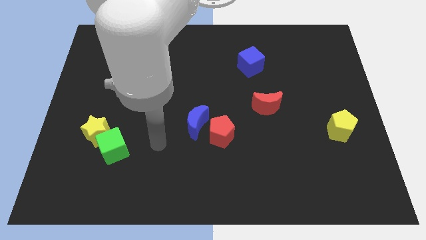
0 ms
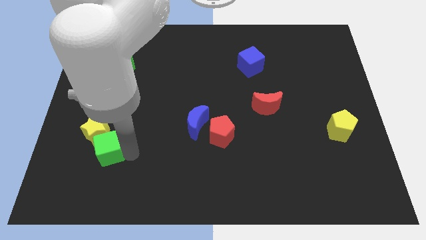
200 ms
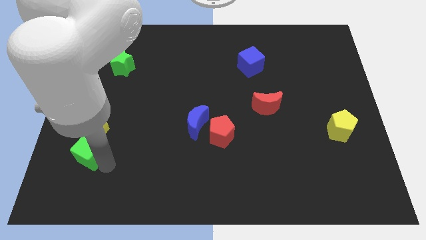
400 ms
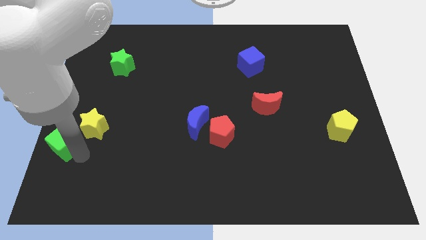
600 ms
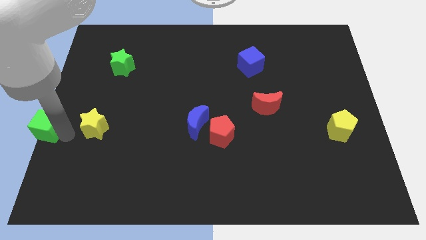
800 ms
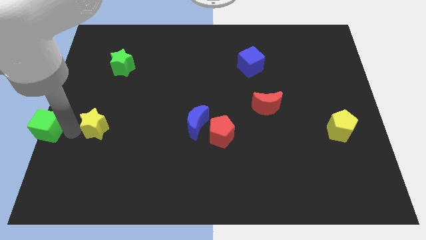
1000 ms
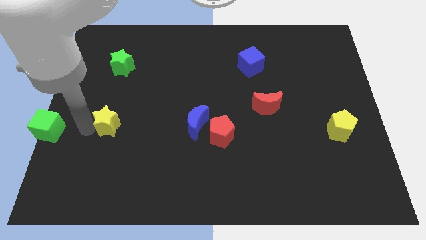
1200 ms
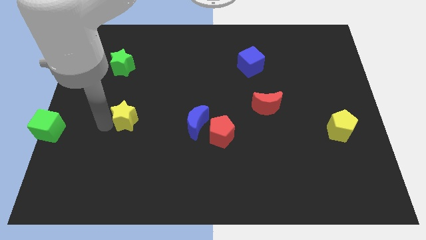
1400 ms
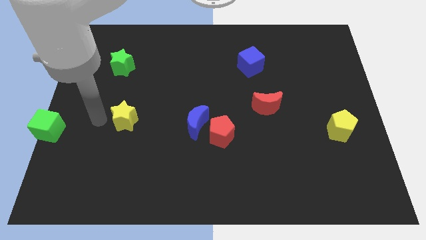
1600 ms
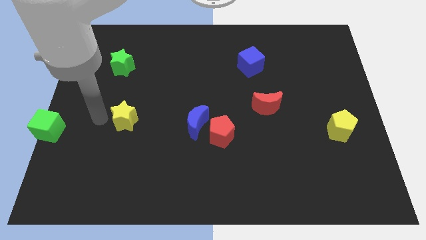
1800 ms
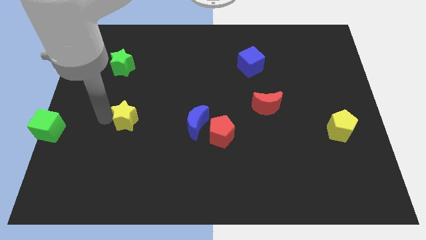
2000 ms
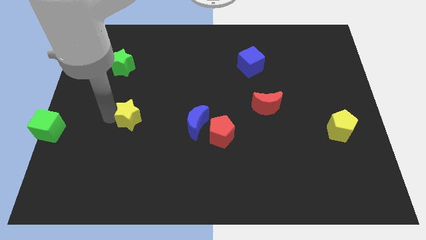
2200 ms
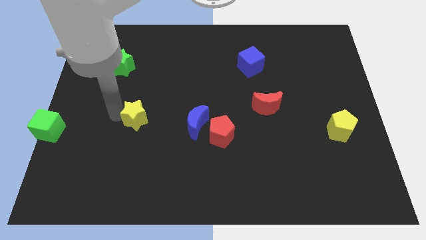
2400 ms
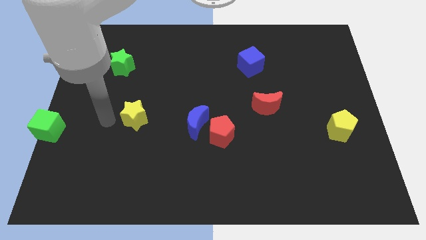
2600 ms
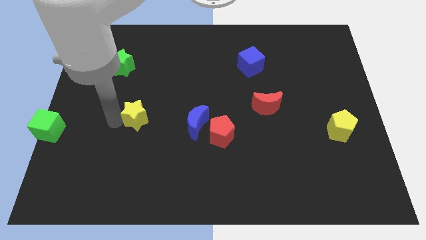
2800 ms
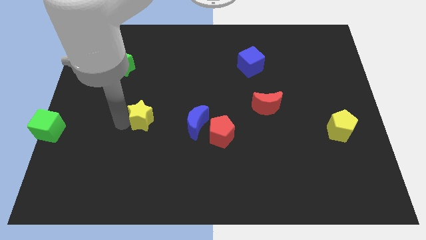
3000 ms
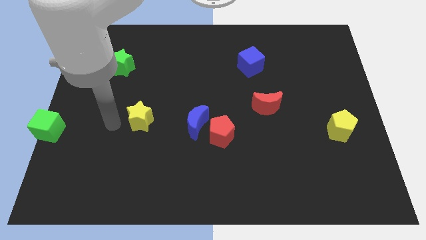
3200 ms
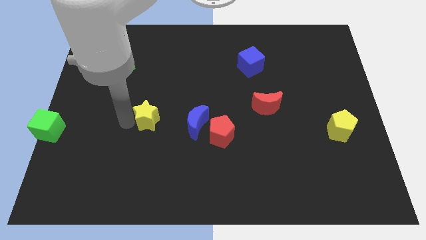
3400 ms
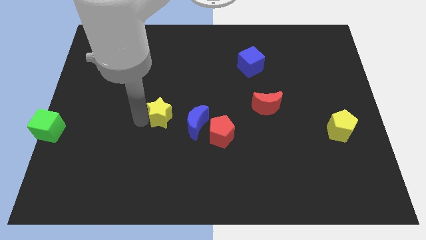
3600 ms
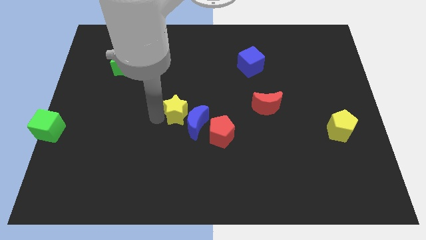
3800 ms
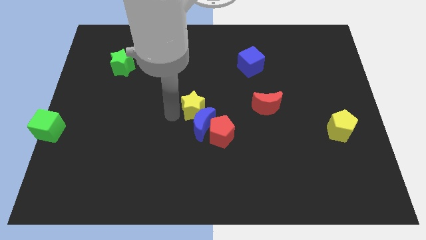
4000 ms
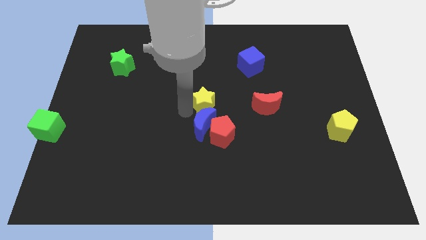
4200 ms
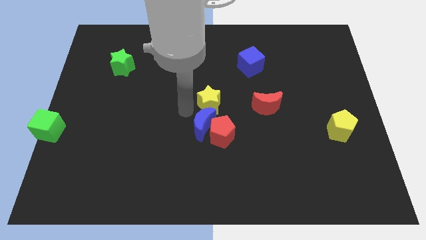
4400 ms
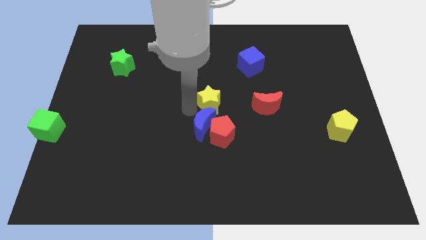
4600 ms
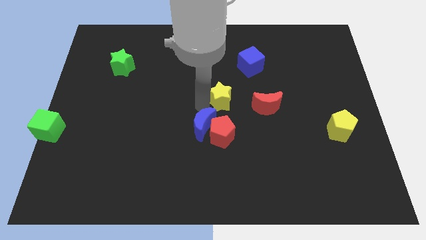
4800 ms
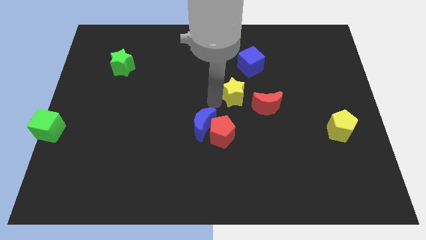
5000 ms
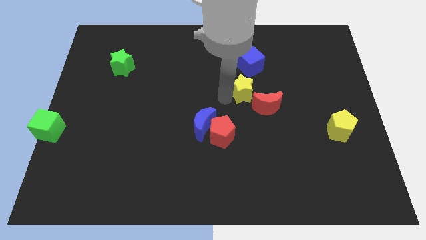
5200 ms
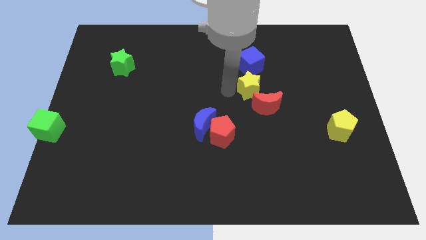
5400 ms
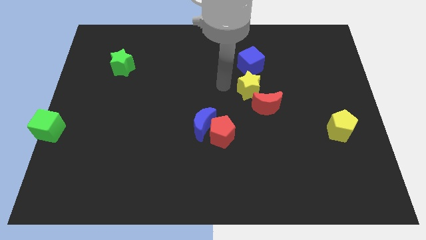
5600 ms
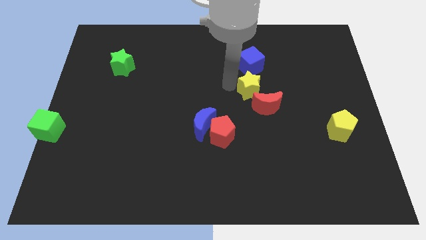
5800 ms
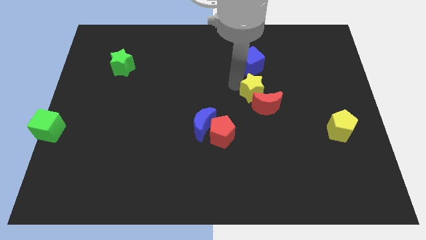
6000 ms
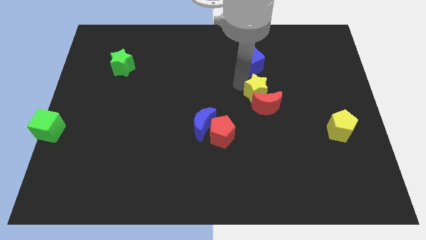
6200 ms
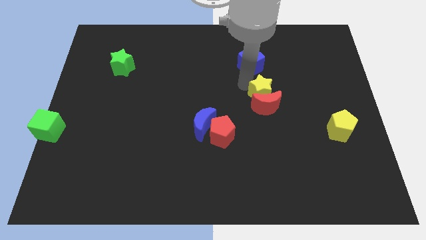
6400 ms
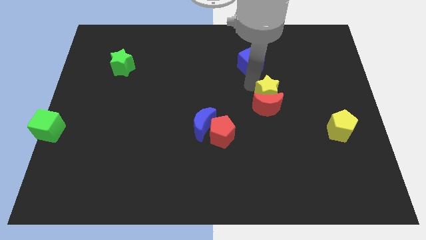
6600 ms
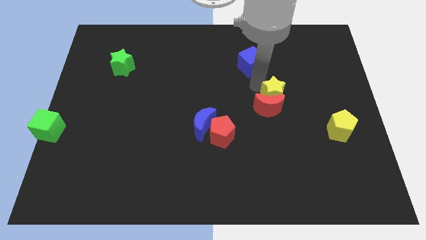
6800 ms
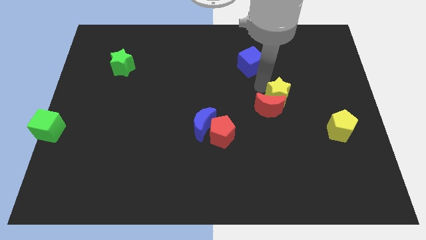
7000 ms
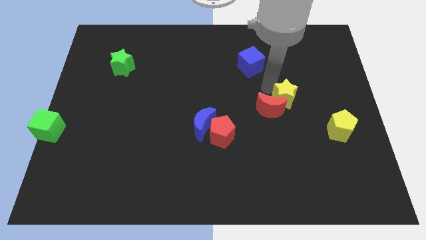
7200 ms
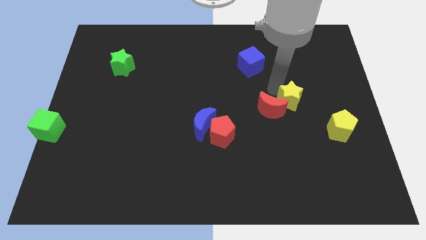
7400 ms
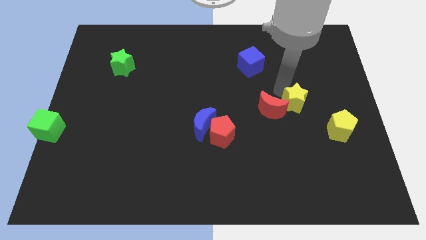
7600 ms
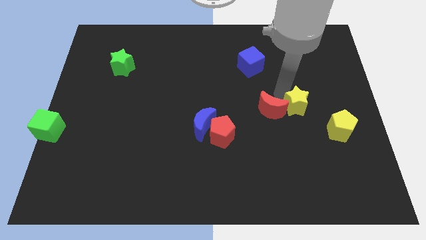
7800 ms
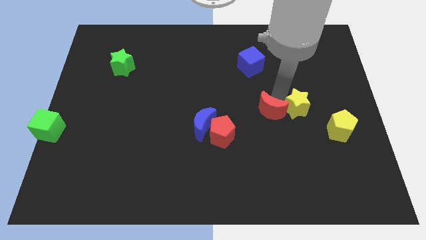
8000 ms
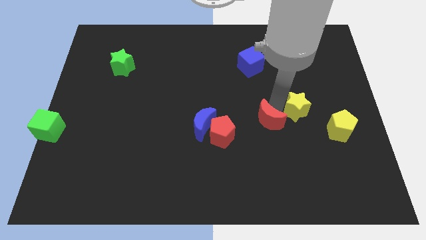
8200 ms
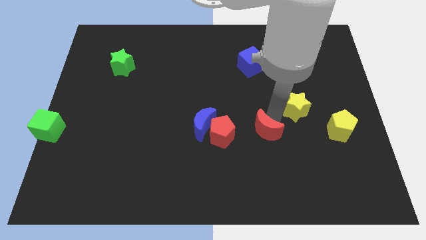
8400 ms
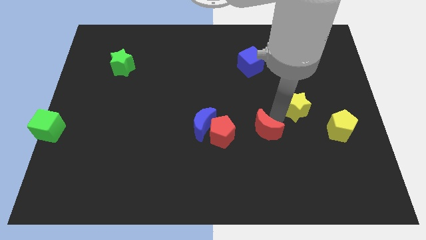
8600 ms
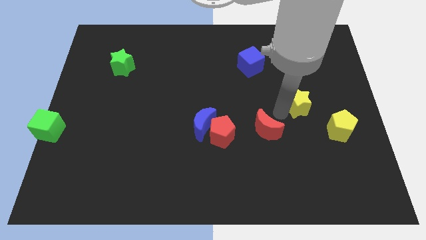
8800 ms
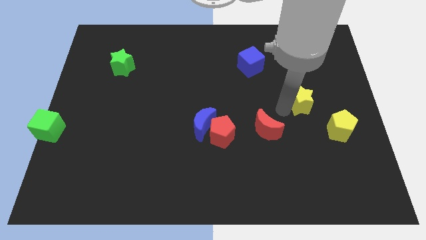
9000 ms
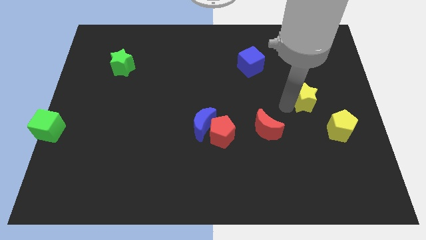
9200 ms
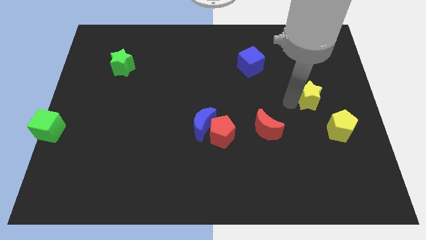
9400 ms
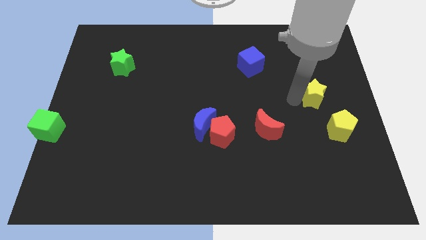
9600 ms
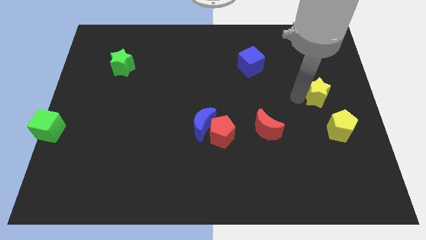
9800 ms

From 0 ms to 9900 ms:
push the yellow star to the right side
